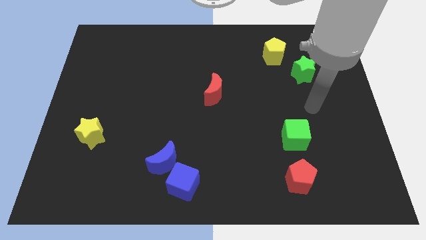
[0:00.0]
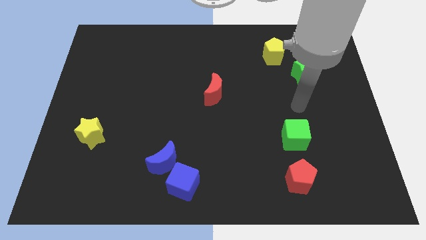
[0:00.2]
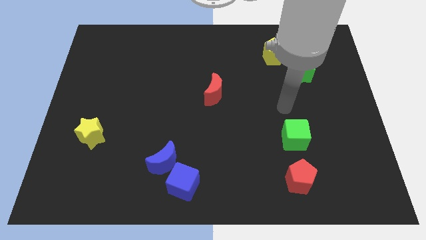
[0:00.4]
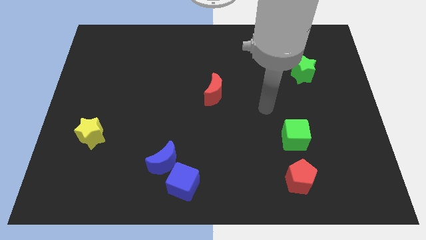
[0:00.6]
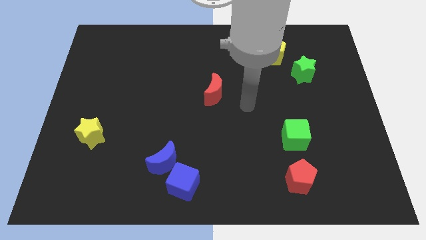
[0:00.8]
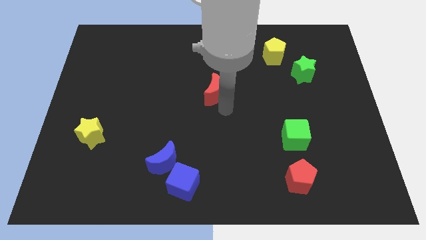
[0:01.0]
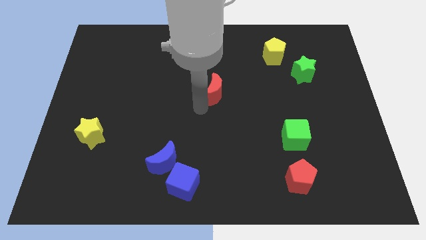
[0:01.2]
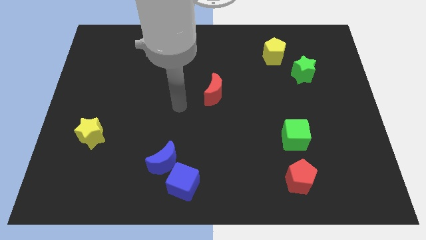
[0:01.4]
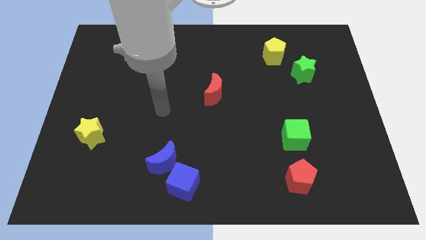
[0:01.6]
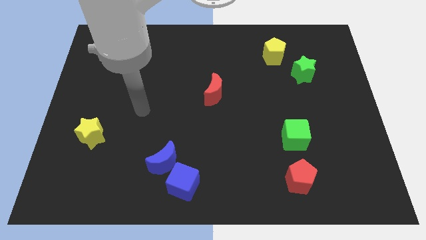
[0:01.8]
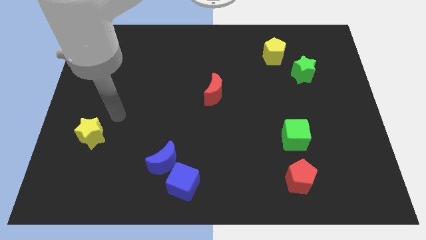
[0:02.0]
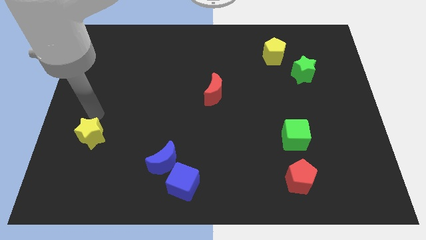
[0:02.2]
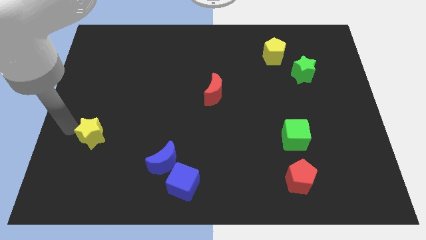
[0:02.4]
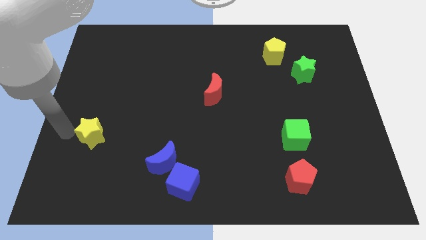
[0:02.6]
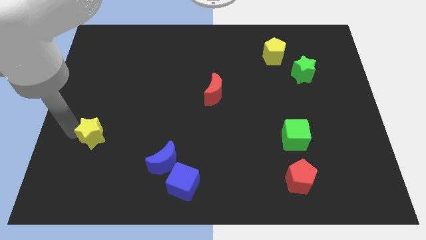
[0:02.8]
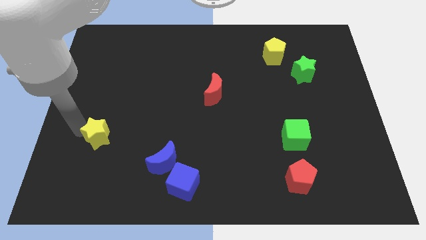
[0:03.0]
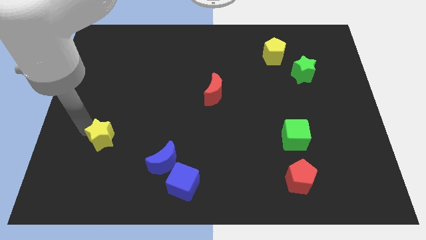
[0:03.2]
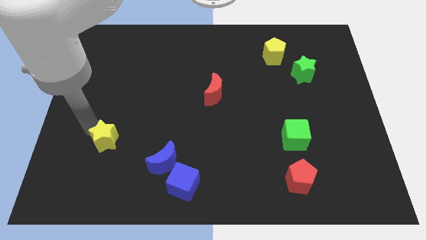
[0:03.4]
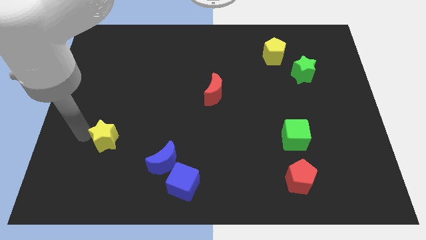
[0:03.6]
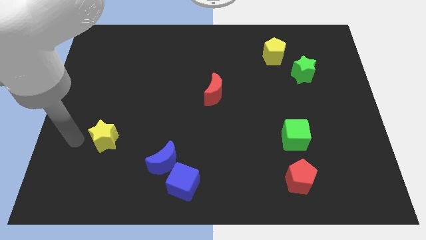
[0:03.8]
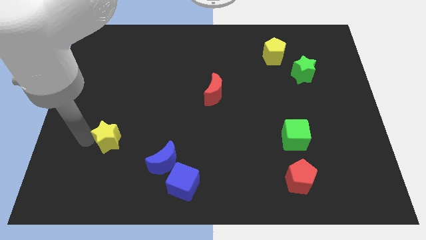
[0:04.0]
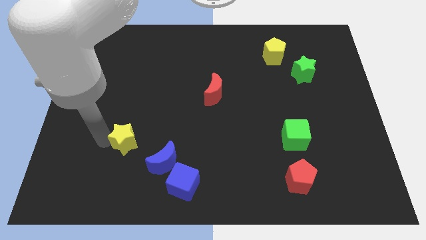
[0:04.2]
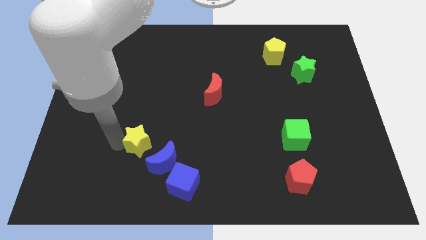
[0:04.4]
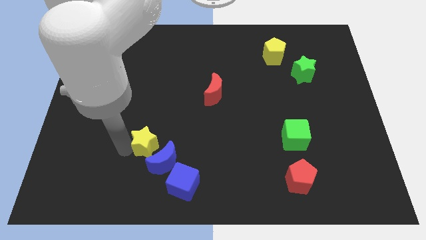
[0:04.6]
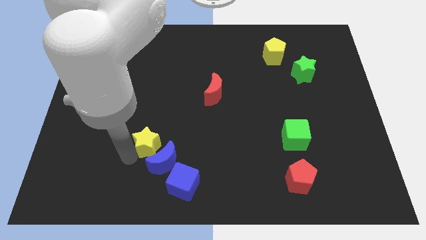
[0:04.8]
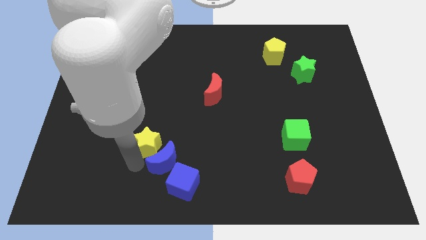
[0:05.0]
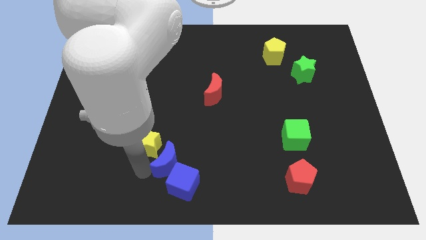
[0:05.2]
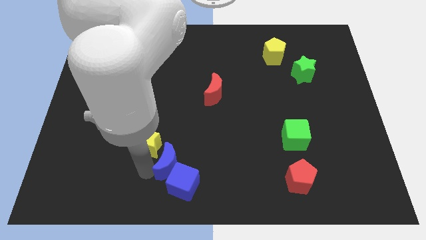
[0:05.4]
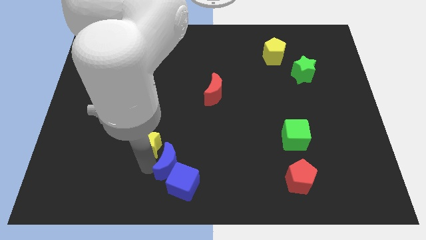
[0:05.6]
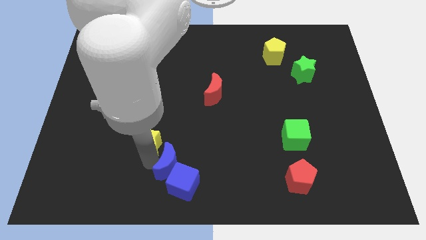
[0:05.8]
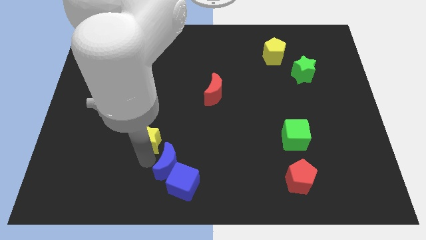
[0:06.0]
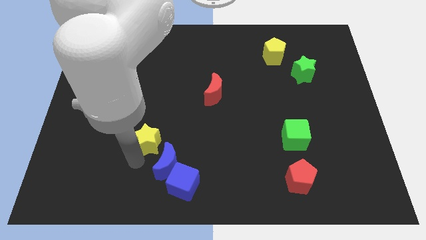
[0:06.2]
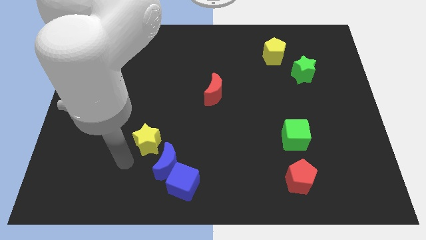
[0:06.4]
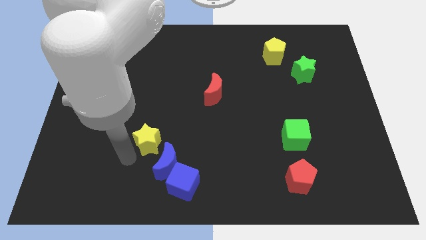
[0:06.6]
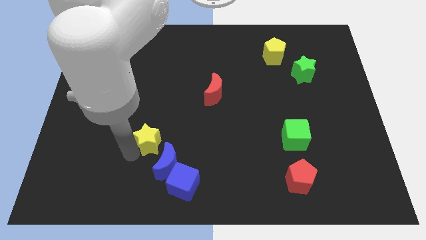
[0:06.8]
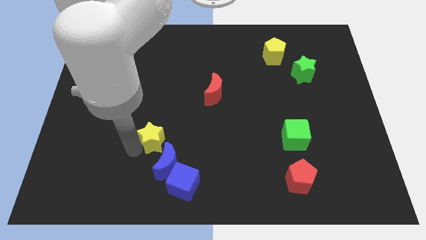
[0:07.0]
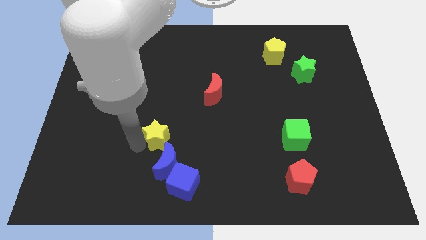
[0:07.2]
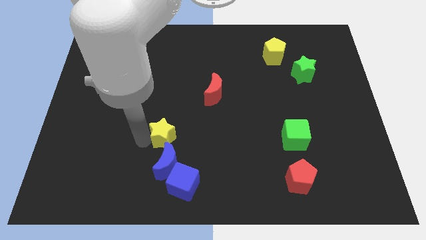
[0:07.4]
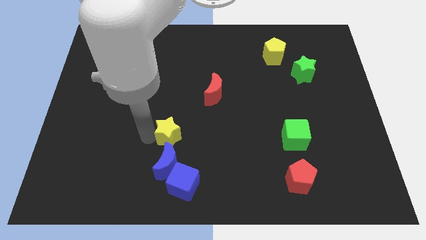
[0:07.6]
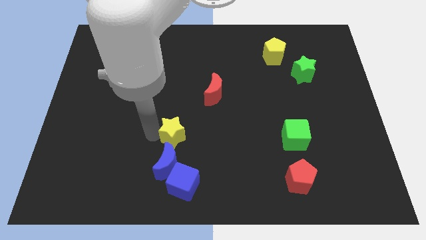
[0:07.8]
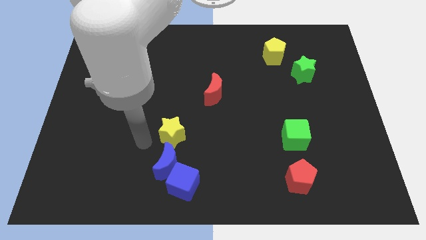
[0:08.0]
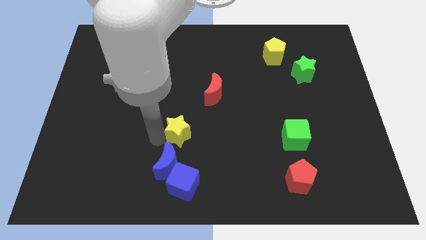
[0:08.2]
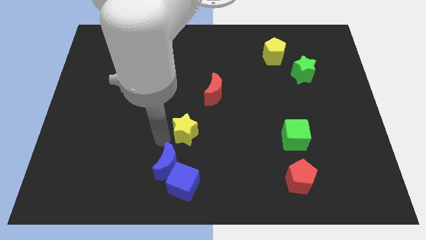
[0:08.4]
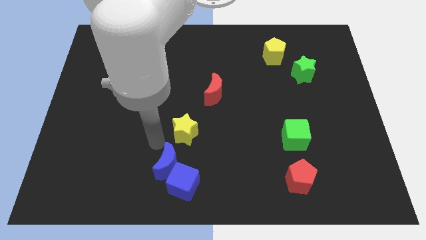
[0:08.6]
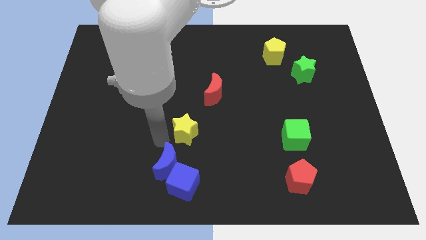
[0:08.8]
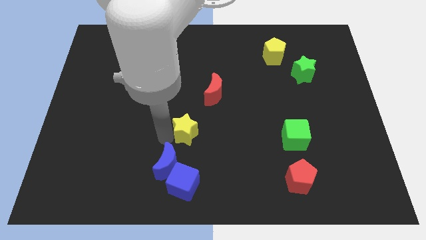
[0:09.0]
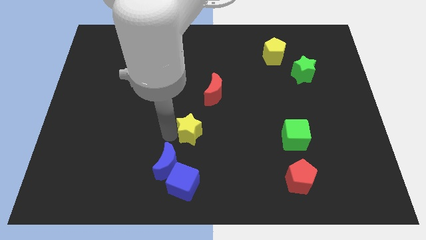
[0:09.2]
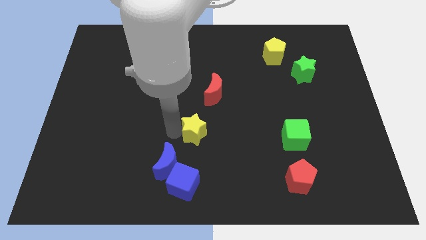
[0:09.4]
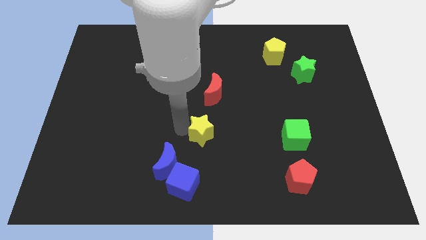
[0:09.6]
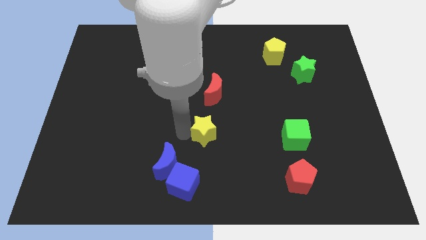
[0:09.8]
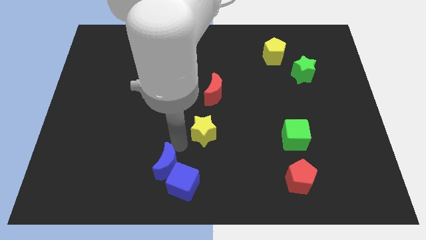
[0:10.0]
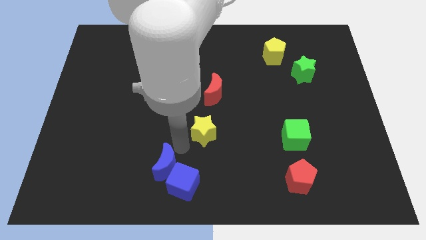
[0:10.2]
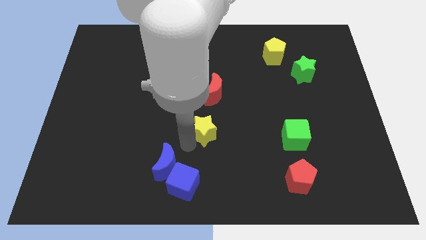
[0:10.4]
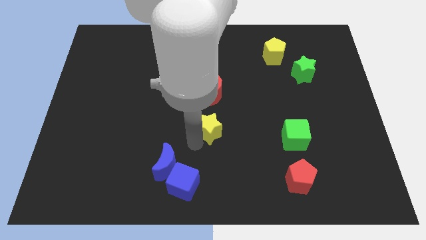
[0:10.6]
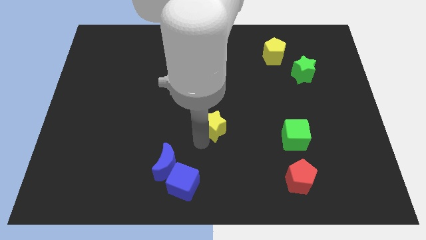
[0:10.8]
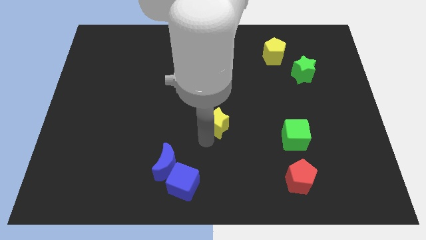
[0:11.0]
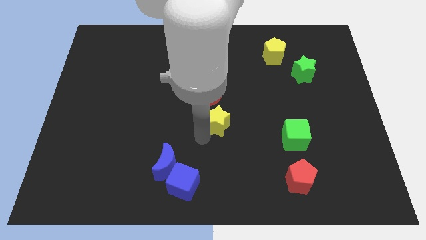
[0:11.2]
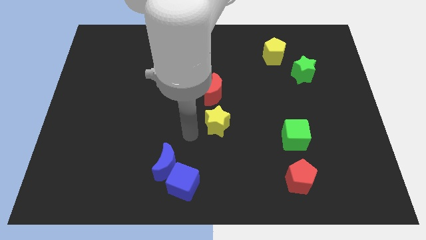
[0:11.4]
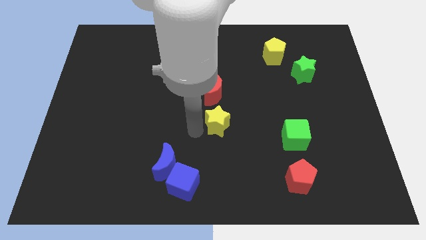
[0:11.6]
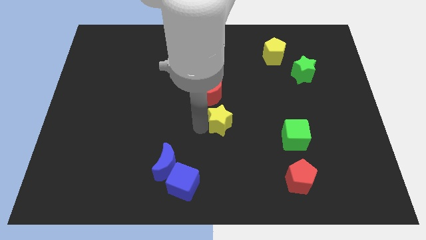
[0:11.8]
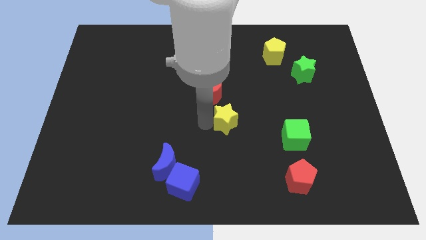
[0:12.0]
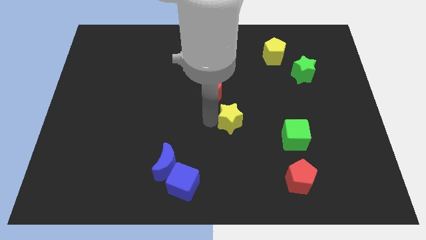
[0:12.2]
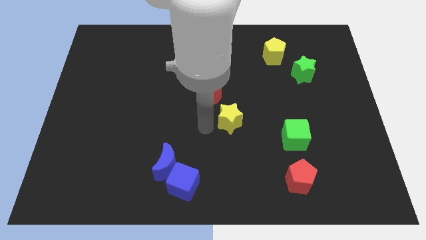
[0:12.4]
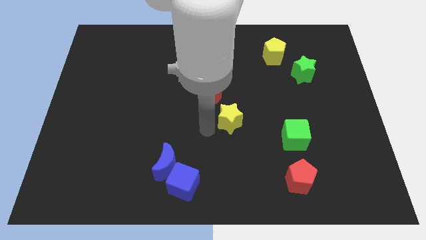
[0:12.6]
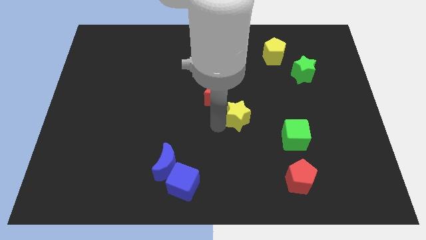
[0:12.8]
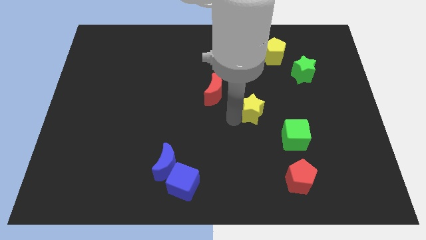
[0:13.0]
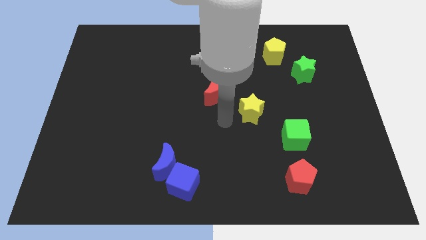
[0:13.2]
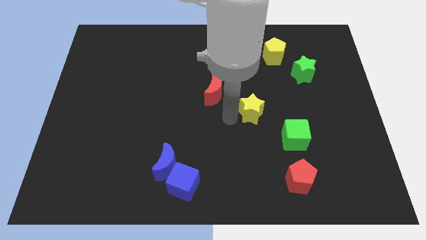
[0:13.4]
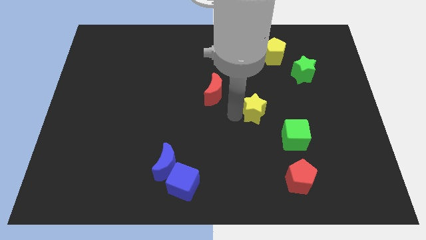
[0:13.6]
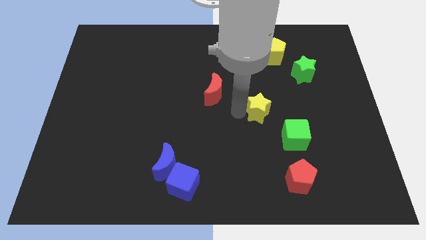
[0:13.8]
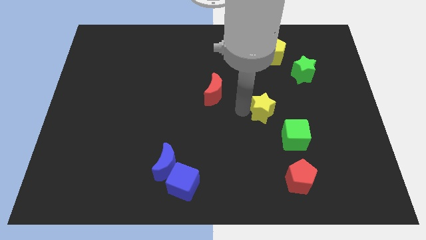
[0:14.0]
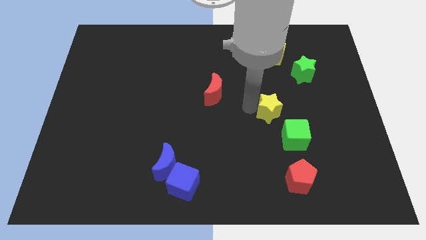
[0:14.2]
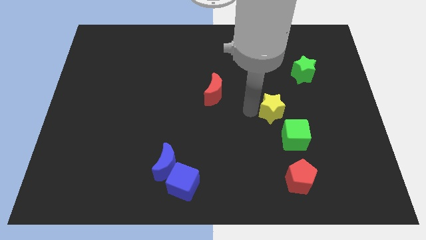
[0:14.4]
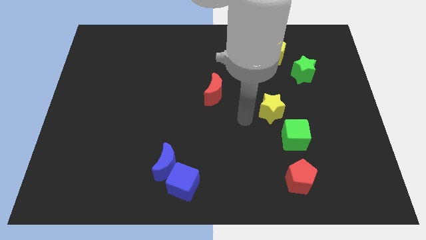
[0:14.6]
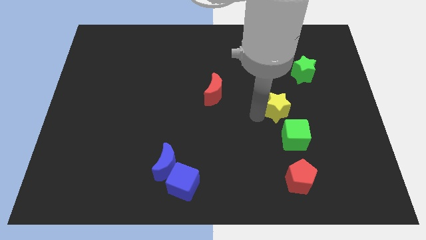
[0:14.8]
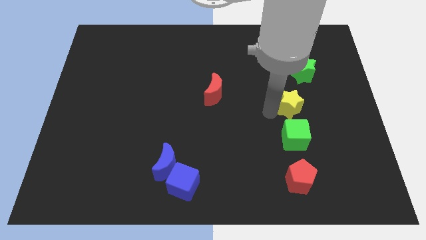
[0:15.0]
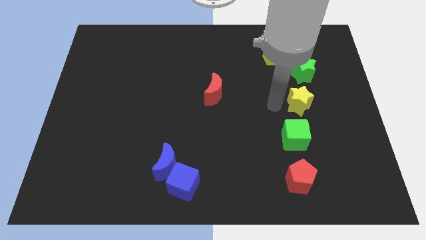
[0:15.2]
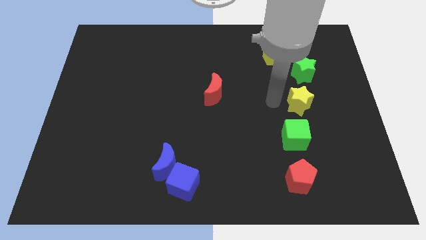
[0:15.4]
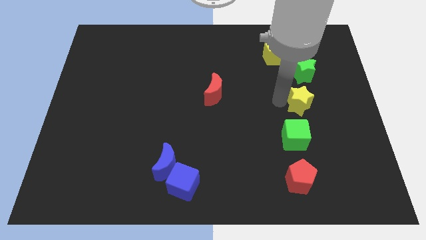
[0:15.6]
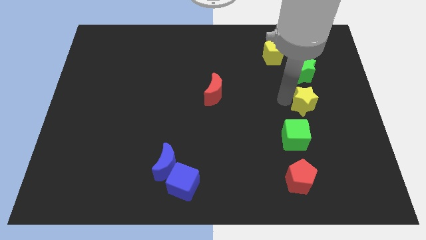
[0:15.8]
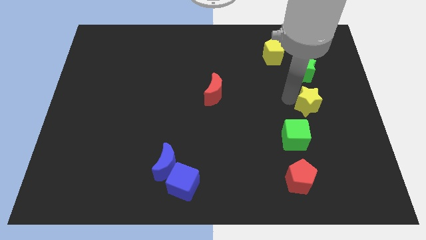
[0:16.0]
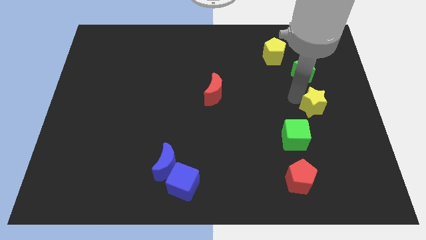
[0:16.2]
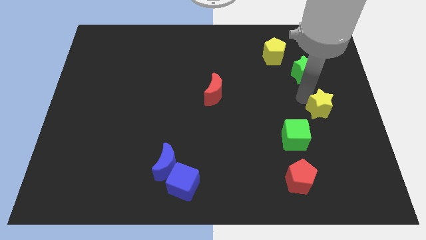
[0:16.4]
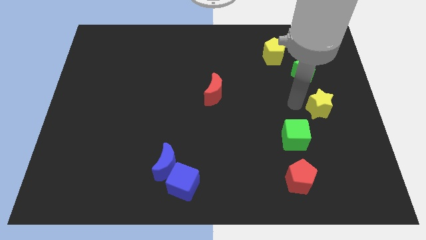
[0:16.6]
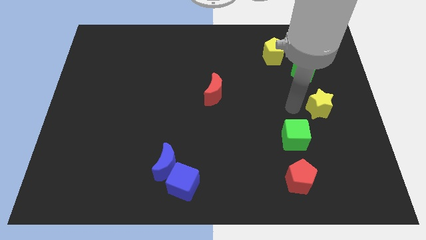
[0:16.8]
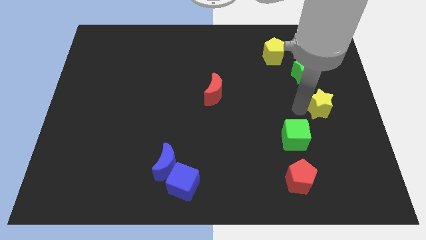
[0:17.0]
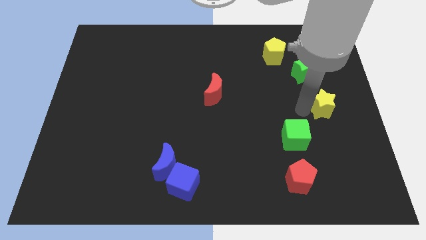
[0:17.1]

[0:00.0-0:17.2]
move the yellow star to the right side of the board
